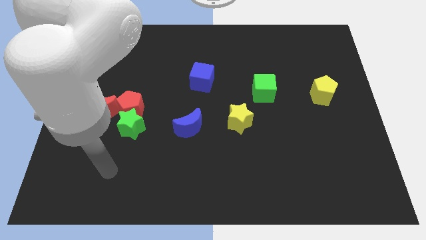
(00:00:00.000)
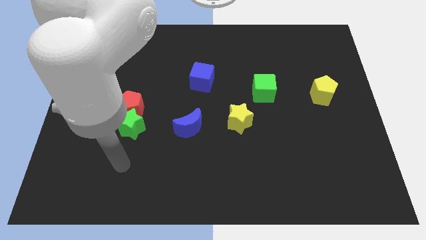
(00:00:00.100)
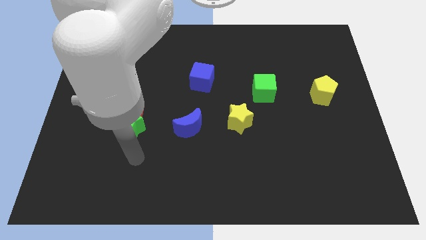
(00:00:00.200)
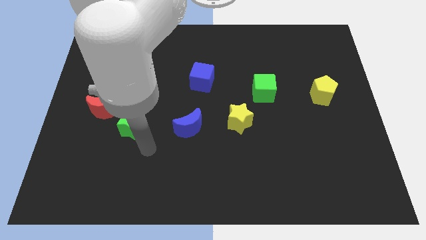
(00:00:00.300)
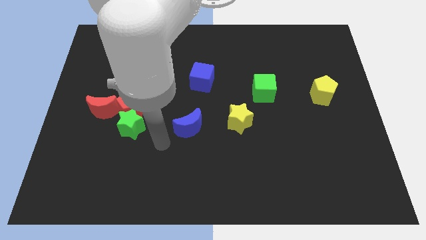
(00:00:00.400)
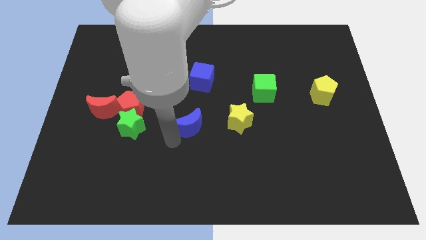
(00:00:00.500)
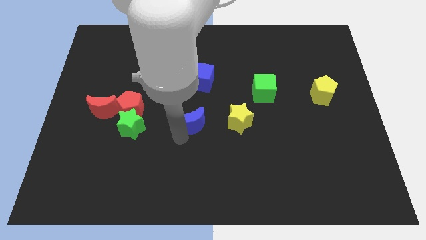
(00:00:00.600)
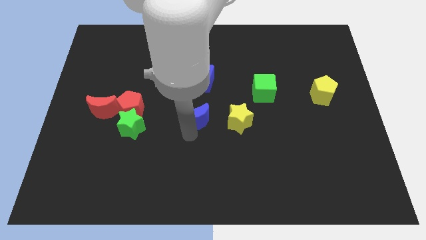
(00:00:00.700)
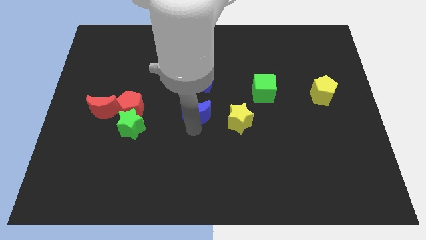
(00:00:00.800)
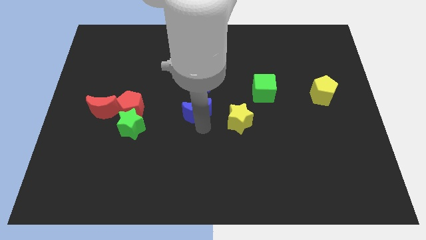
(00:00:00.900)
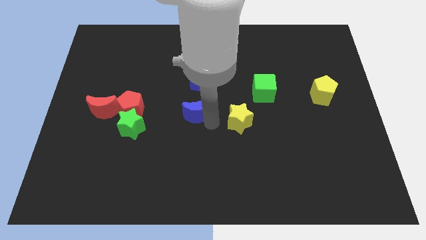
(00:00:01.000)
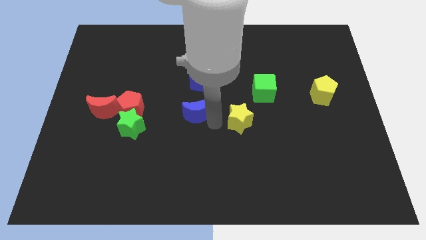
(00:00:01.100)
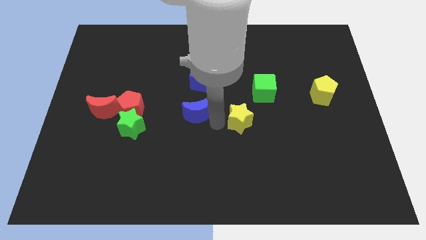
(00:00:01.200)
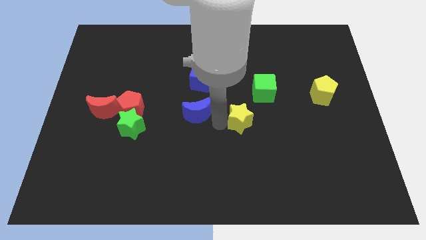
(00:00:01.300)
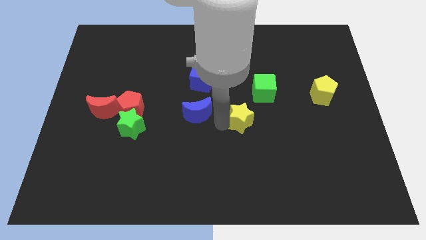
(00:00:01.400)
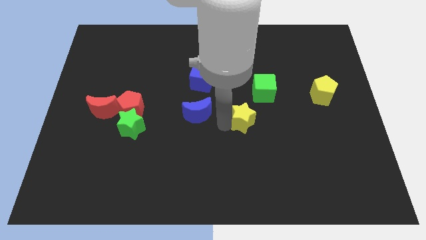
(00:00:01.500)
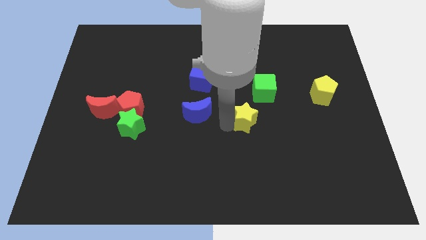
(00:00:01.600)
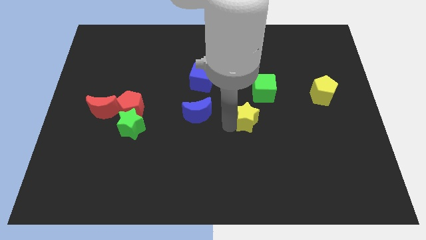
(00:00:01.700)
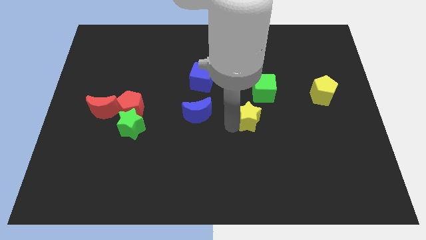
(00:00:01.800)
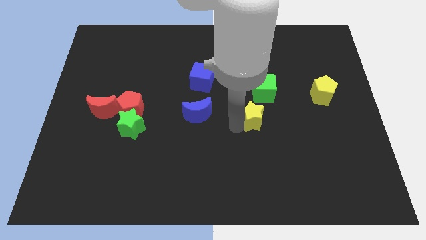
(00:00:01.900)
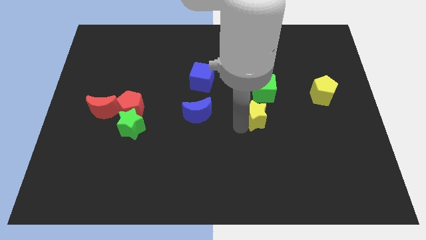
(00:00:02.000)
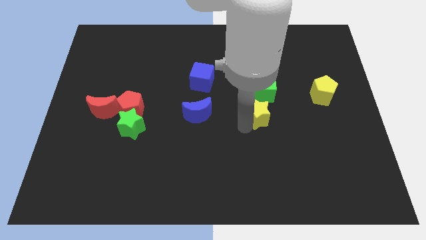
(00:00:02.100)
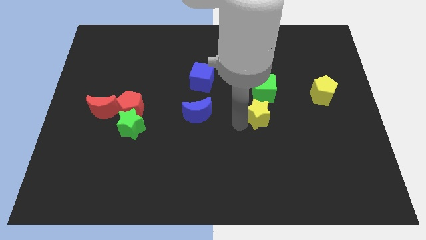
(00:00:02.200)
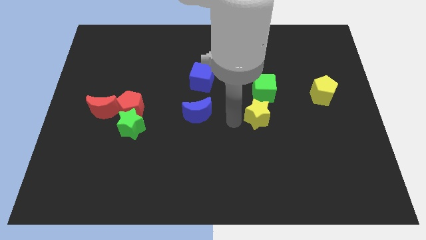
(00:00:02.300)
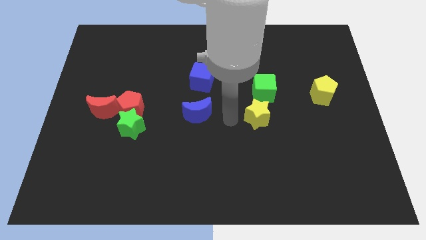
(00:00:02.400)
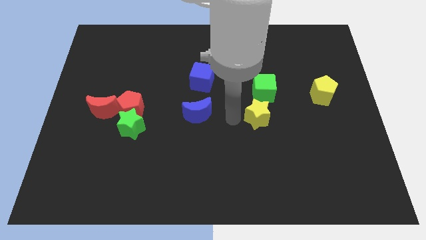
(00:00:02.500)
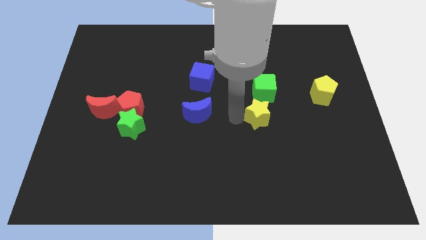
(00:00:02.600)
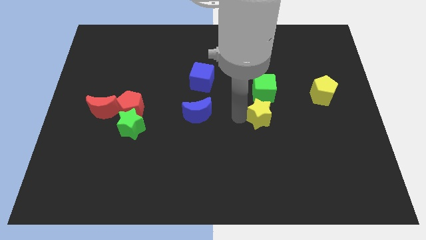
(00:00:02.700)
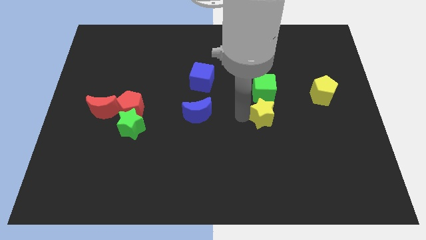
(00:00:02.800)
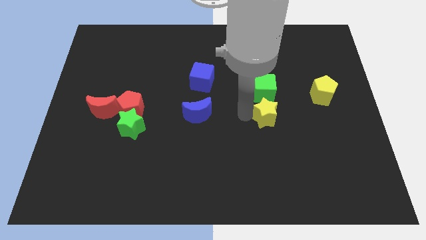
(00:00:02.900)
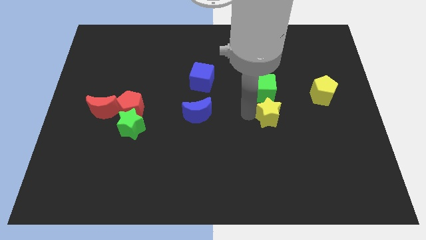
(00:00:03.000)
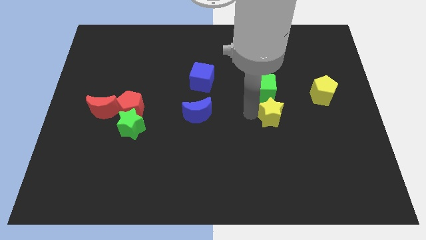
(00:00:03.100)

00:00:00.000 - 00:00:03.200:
move the yellow star slightly to the right

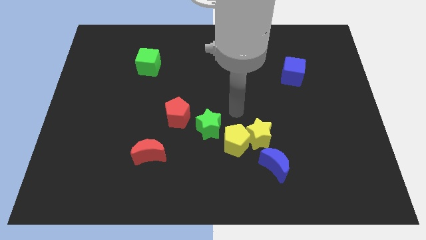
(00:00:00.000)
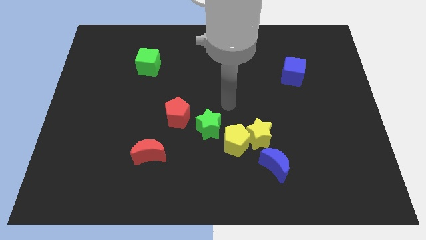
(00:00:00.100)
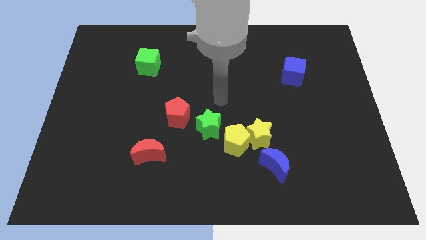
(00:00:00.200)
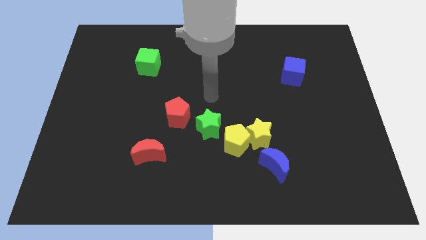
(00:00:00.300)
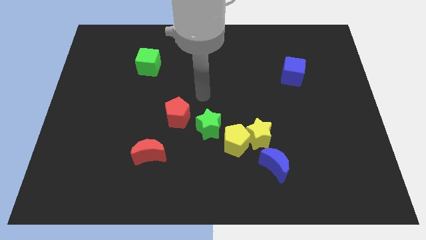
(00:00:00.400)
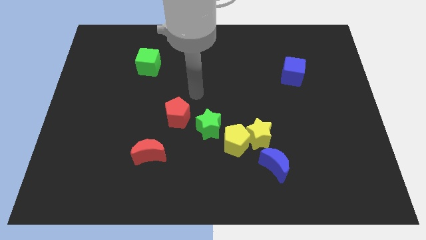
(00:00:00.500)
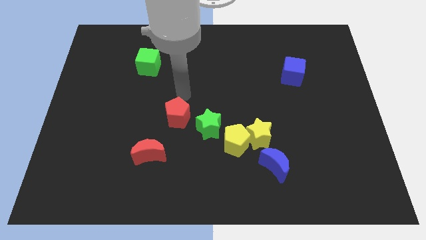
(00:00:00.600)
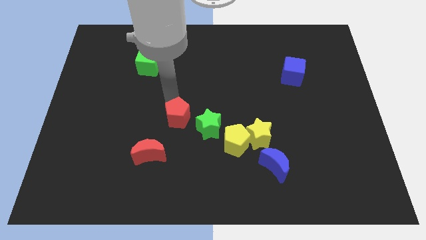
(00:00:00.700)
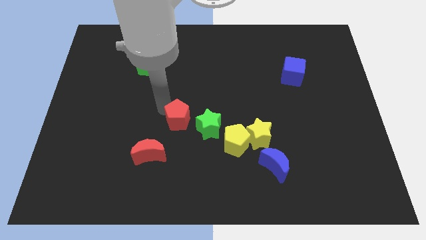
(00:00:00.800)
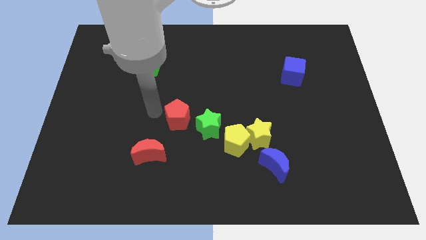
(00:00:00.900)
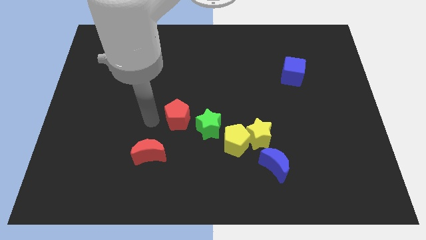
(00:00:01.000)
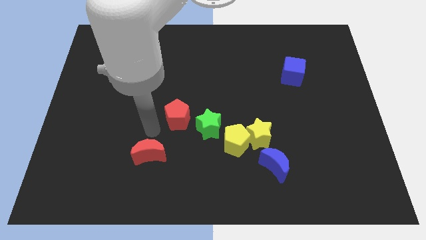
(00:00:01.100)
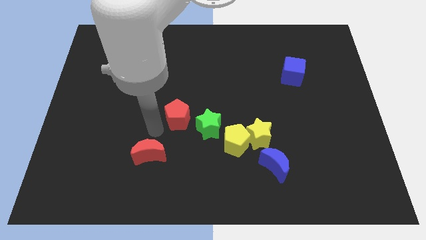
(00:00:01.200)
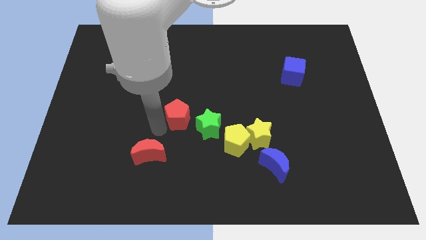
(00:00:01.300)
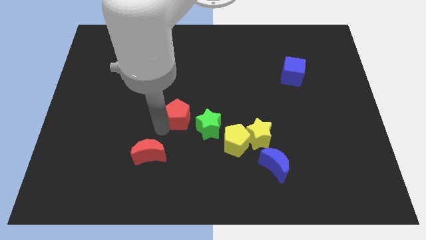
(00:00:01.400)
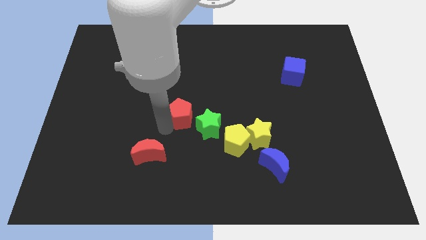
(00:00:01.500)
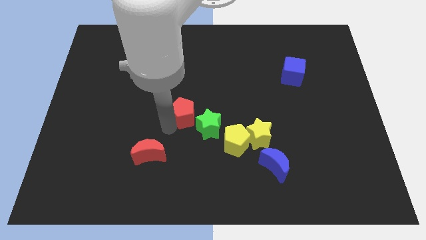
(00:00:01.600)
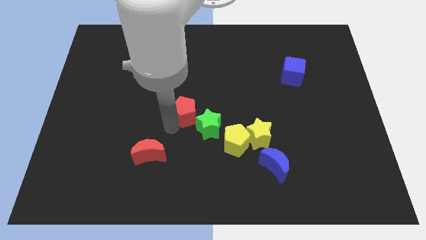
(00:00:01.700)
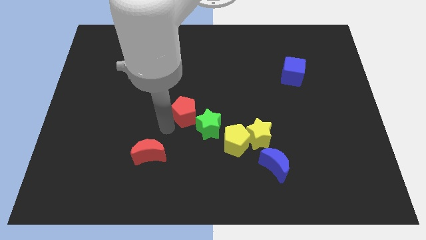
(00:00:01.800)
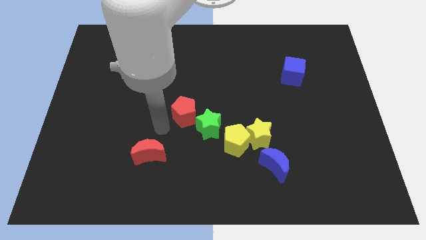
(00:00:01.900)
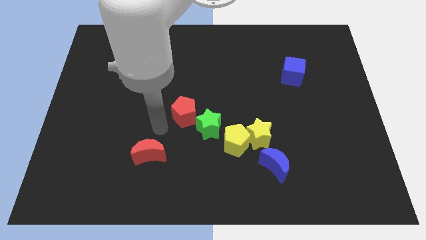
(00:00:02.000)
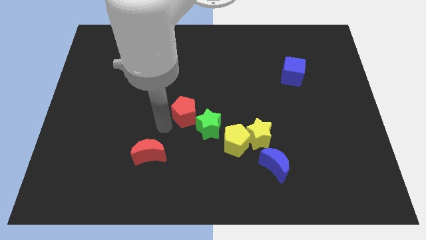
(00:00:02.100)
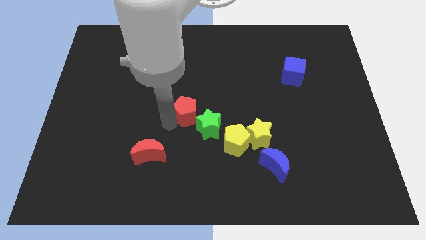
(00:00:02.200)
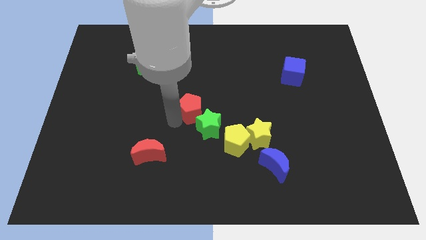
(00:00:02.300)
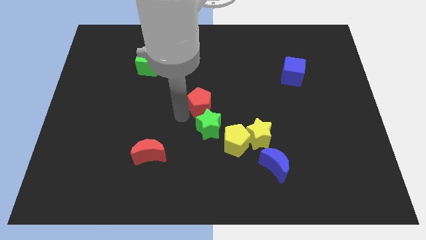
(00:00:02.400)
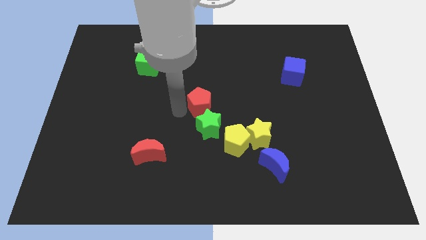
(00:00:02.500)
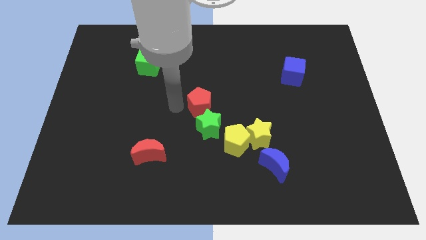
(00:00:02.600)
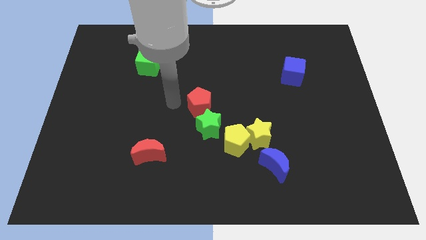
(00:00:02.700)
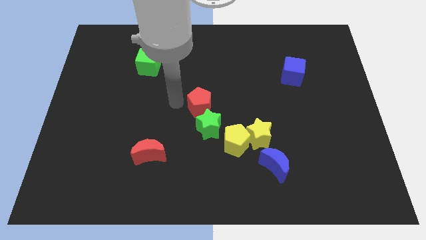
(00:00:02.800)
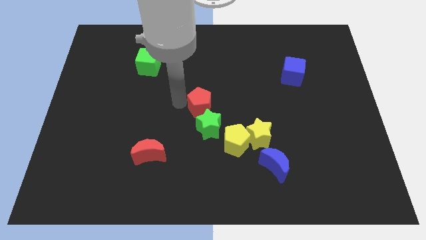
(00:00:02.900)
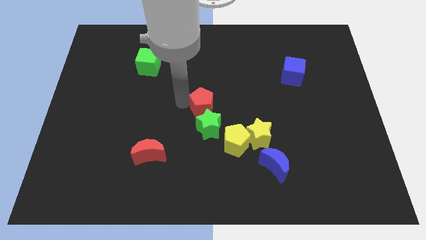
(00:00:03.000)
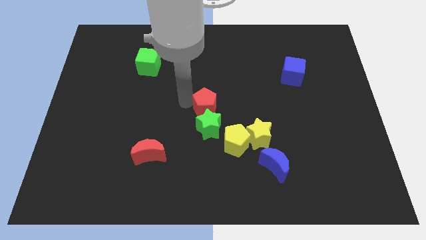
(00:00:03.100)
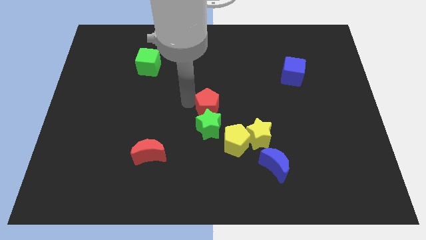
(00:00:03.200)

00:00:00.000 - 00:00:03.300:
push the red pentagon slightly right

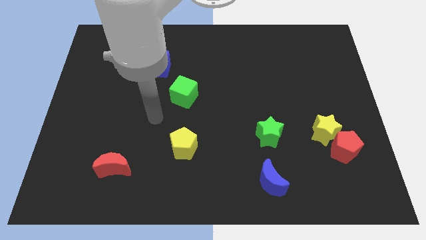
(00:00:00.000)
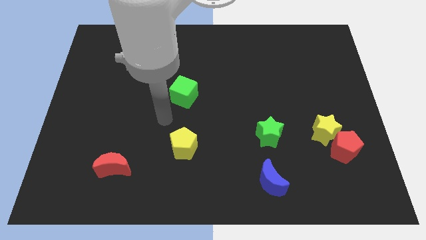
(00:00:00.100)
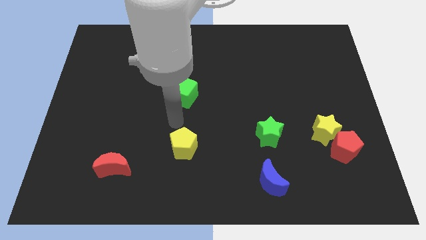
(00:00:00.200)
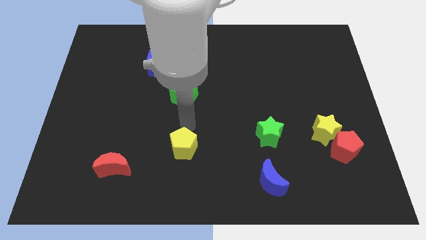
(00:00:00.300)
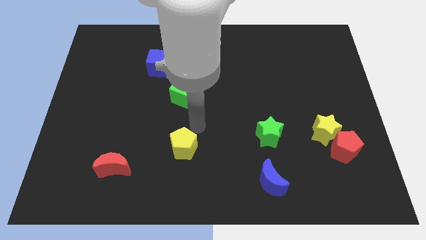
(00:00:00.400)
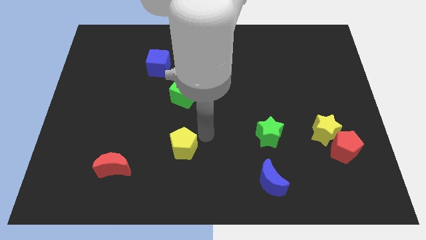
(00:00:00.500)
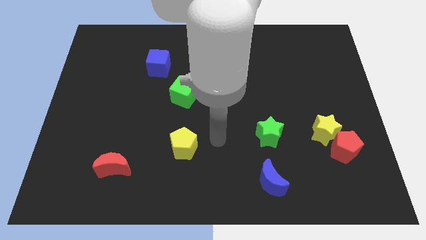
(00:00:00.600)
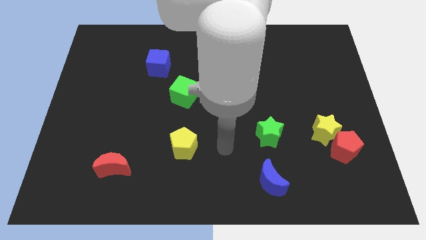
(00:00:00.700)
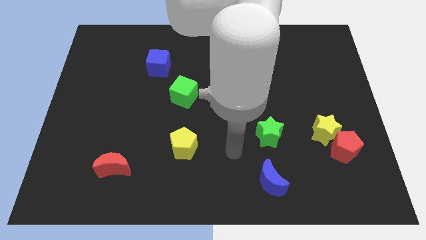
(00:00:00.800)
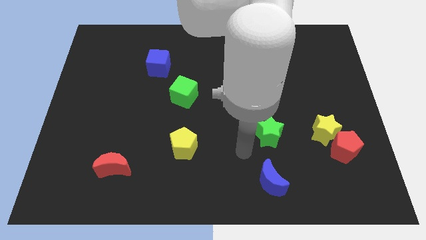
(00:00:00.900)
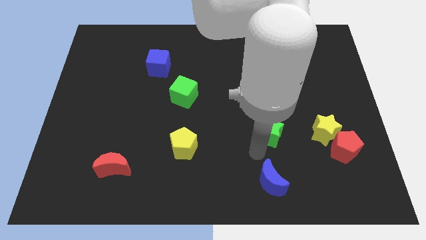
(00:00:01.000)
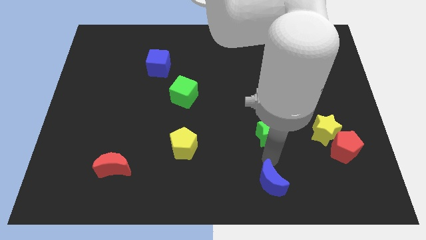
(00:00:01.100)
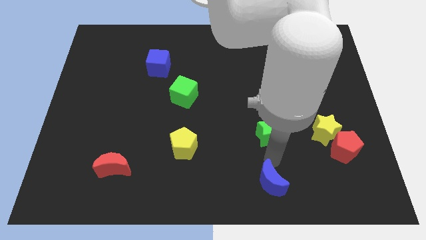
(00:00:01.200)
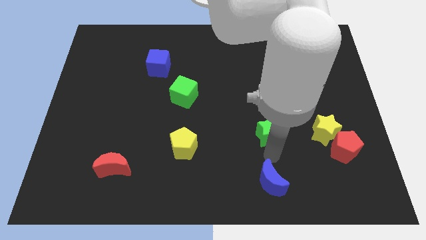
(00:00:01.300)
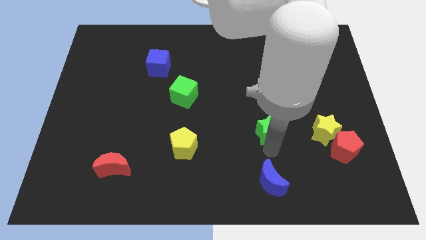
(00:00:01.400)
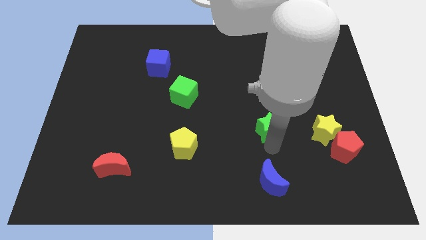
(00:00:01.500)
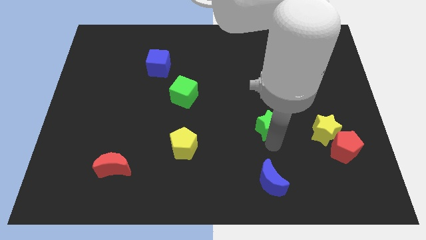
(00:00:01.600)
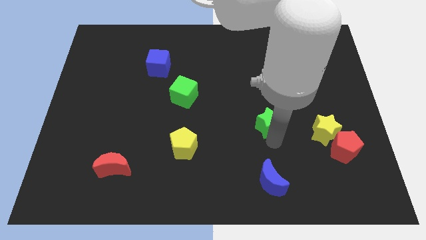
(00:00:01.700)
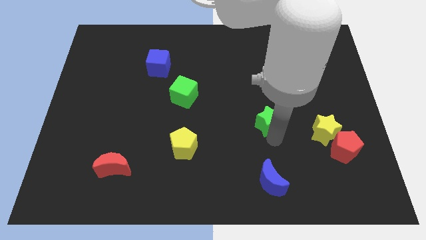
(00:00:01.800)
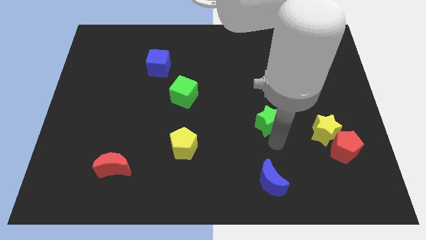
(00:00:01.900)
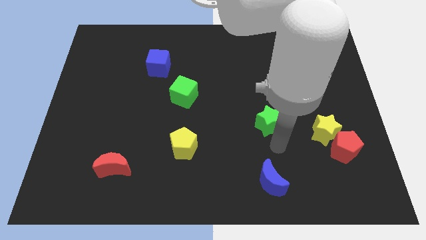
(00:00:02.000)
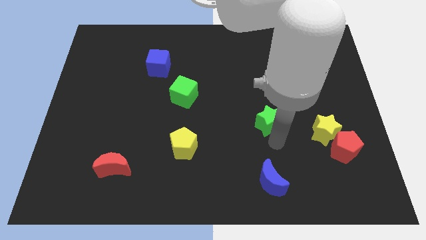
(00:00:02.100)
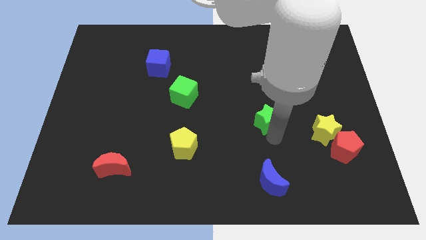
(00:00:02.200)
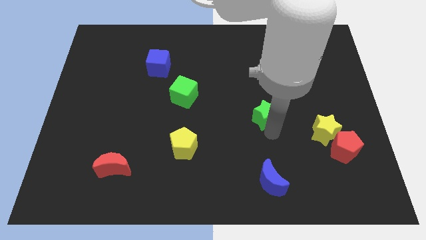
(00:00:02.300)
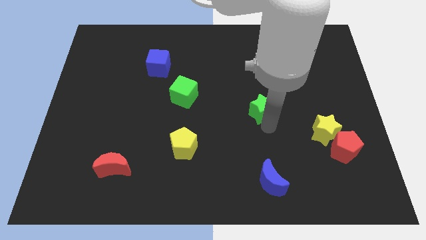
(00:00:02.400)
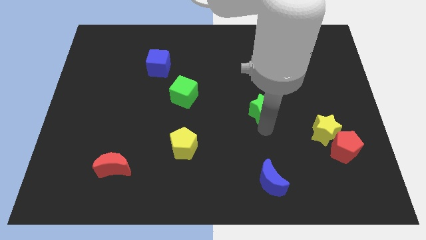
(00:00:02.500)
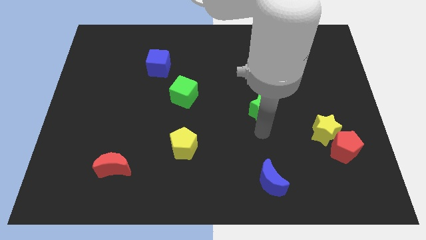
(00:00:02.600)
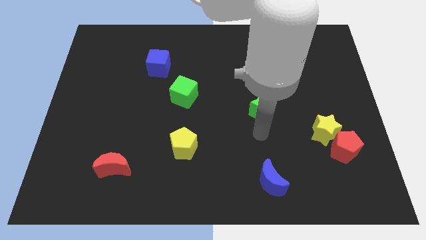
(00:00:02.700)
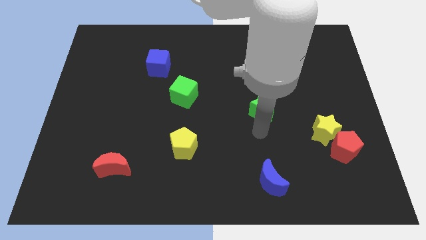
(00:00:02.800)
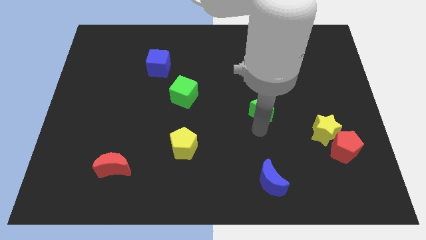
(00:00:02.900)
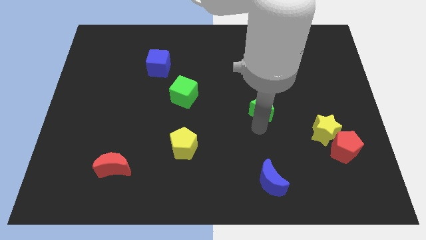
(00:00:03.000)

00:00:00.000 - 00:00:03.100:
slightly move the green star upwards
